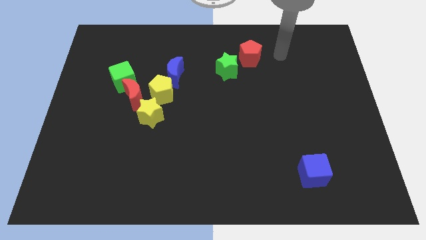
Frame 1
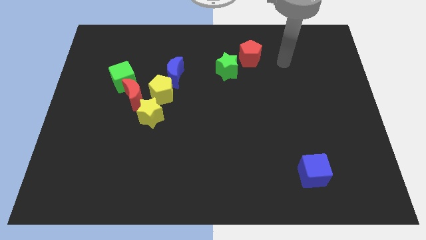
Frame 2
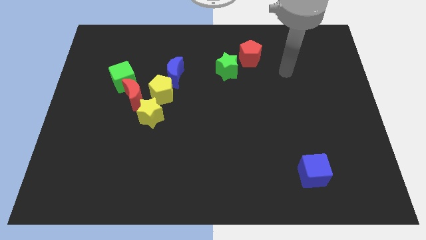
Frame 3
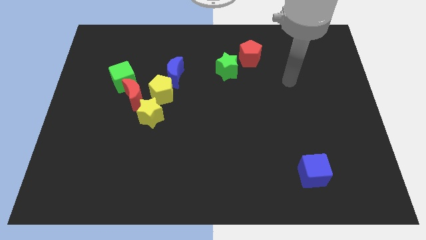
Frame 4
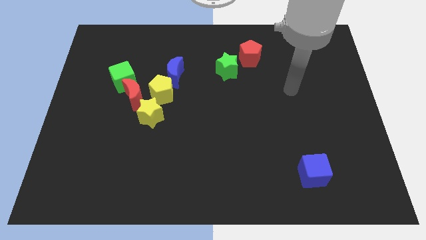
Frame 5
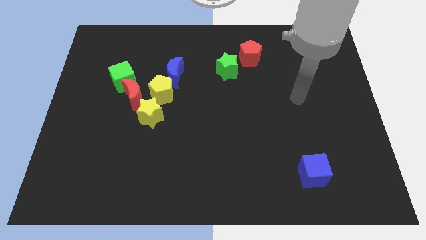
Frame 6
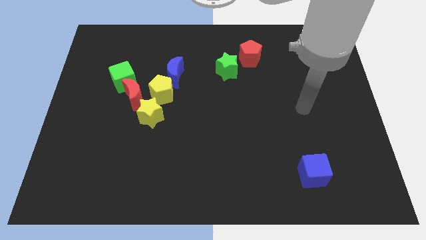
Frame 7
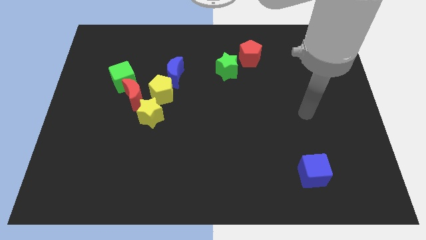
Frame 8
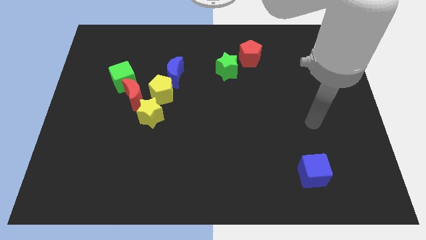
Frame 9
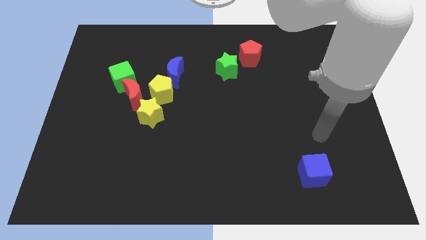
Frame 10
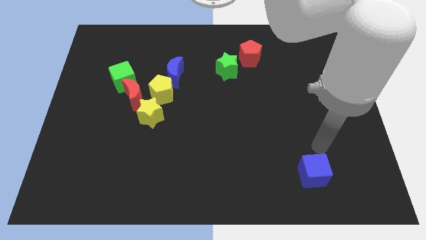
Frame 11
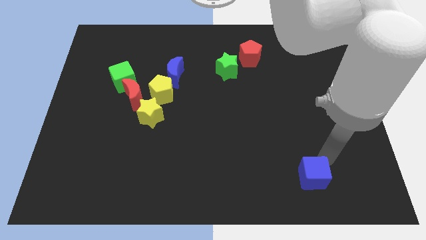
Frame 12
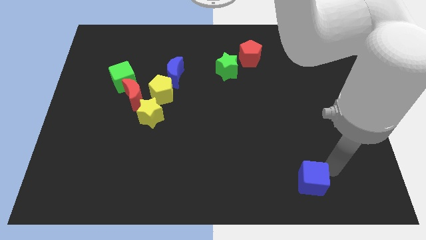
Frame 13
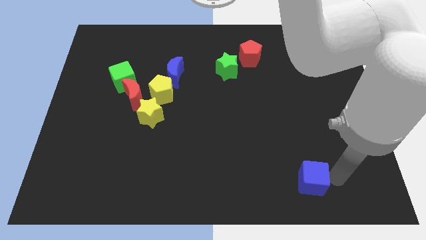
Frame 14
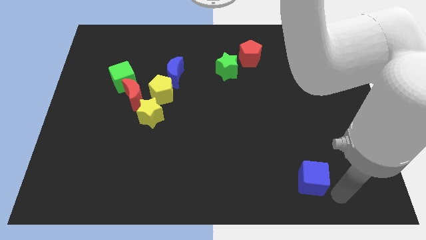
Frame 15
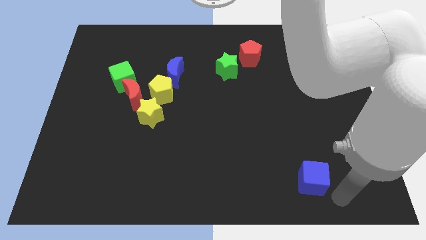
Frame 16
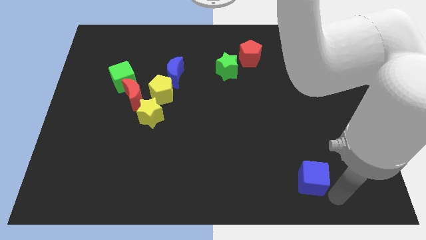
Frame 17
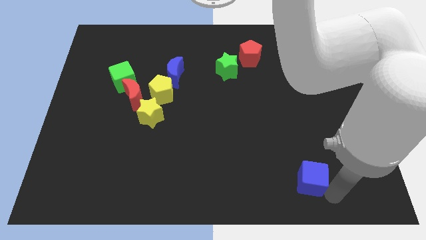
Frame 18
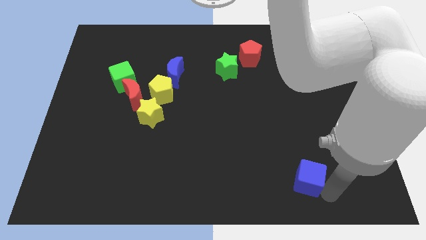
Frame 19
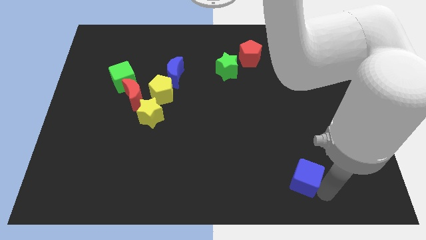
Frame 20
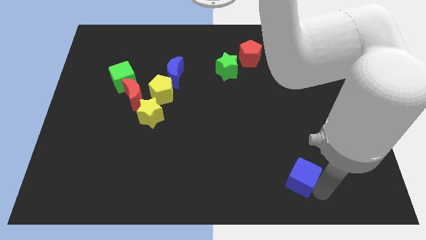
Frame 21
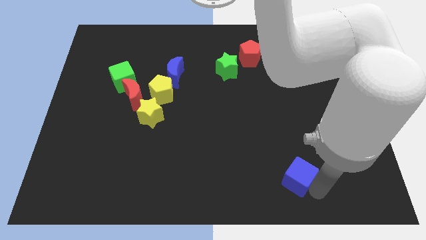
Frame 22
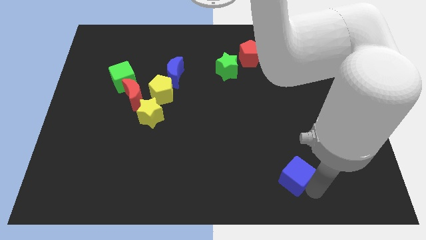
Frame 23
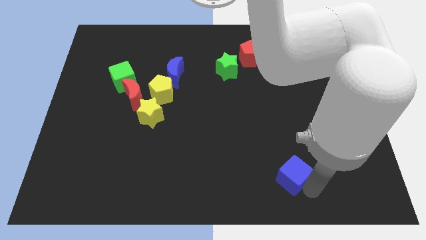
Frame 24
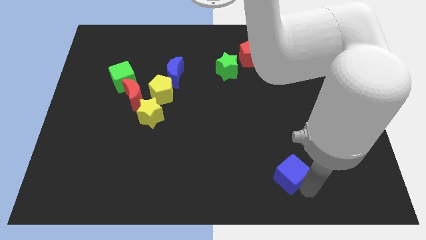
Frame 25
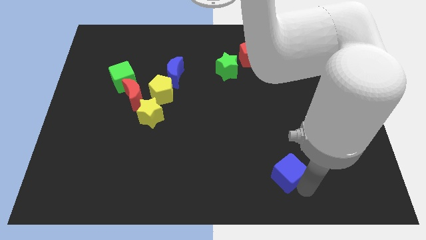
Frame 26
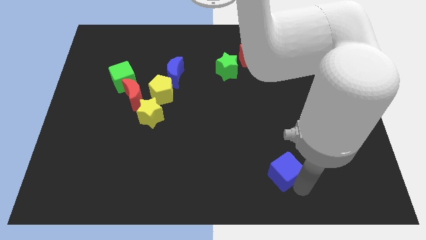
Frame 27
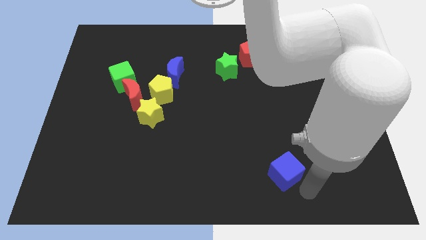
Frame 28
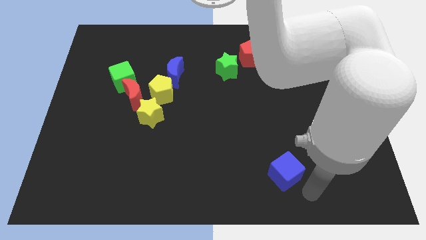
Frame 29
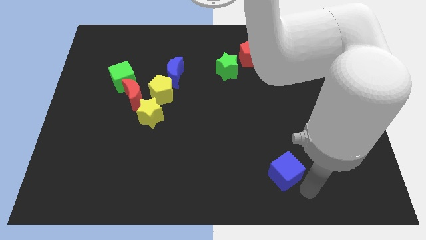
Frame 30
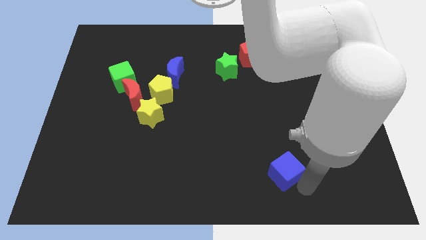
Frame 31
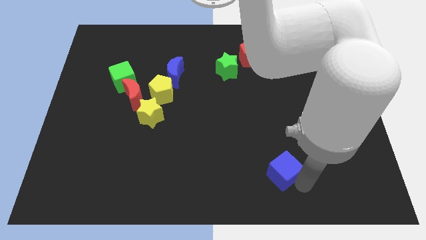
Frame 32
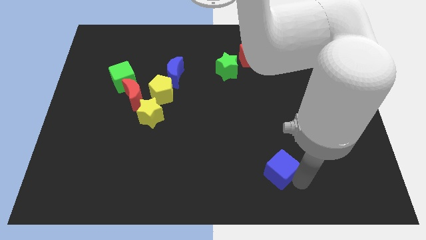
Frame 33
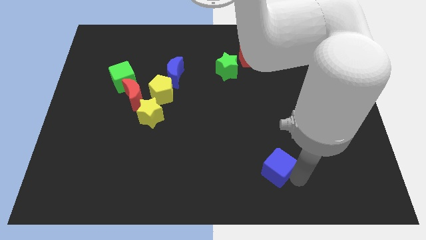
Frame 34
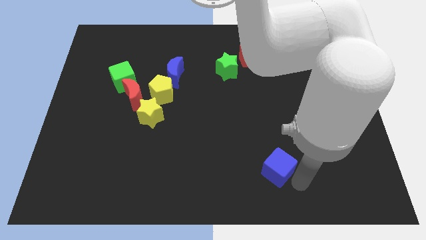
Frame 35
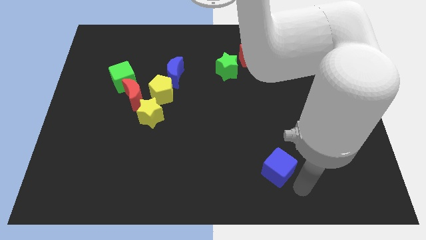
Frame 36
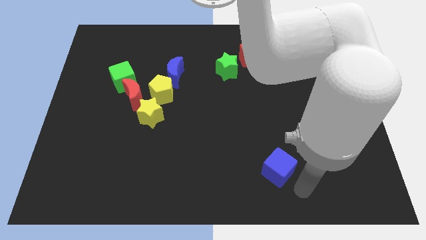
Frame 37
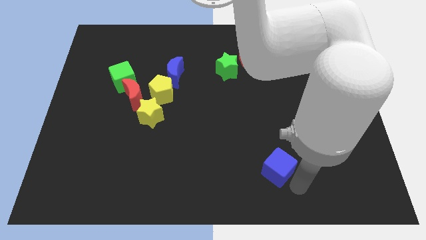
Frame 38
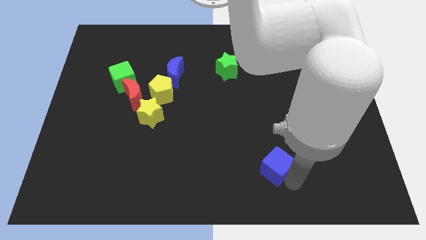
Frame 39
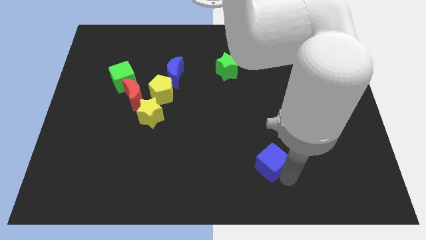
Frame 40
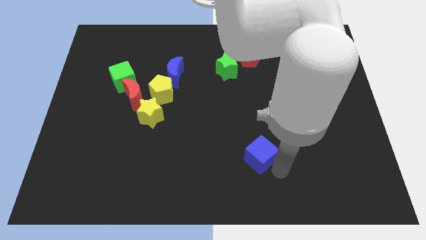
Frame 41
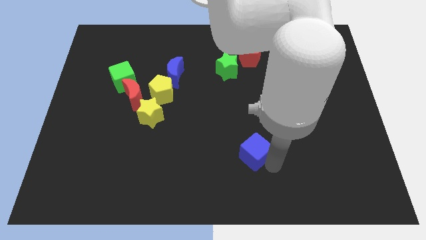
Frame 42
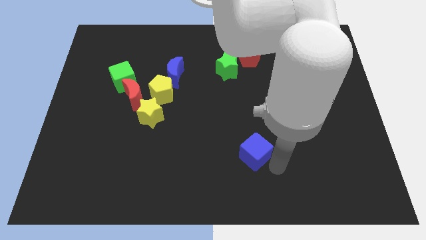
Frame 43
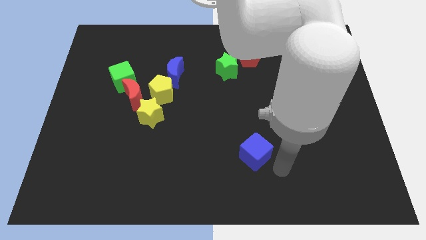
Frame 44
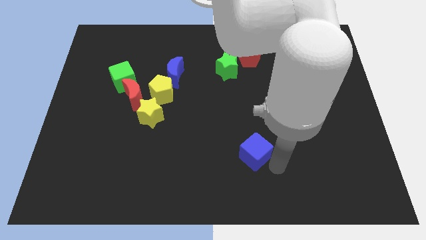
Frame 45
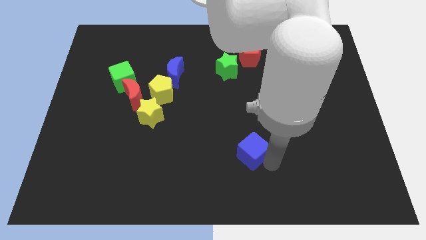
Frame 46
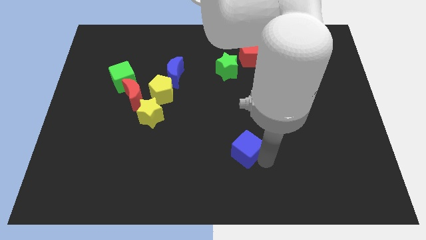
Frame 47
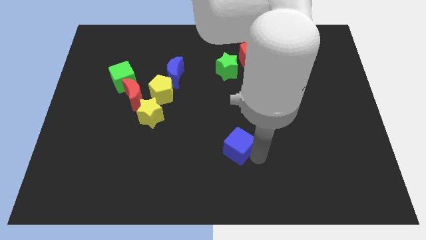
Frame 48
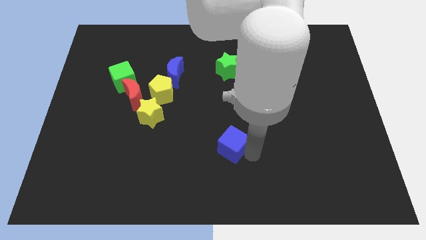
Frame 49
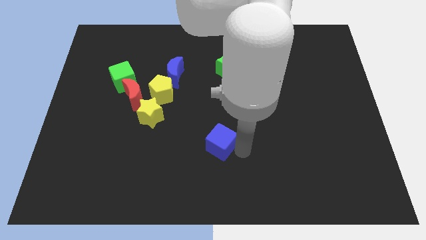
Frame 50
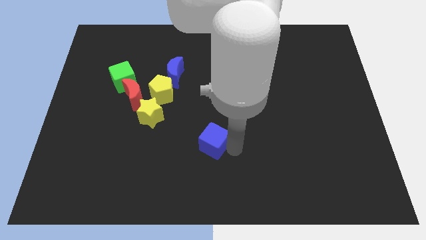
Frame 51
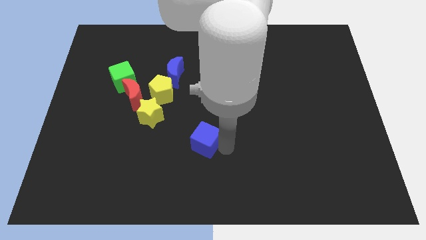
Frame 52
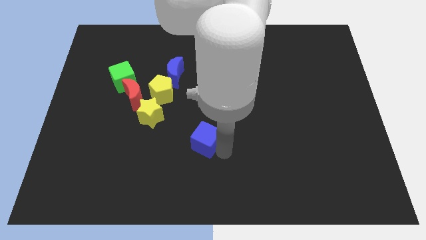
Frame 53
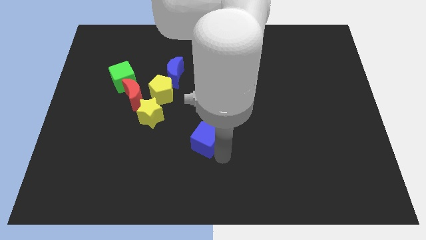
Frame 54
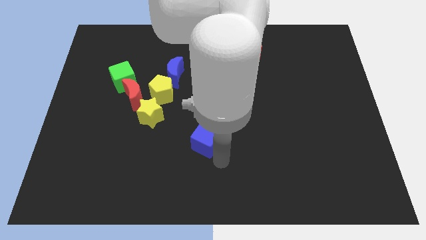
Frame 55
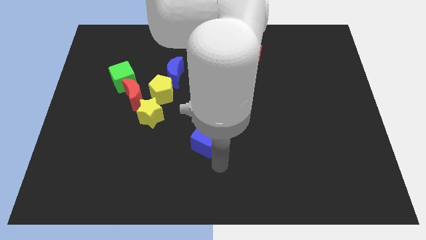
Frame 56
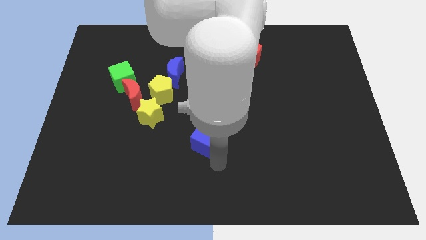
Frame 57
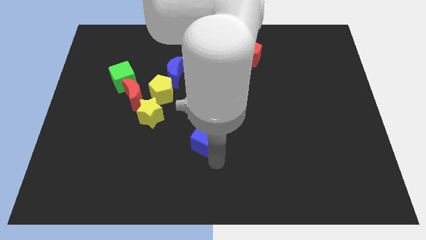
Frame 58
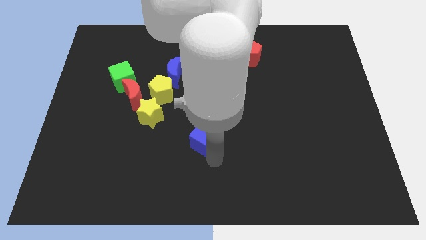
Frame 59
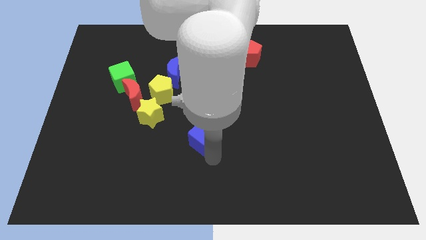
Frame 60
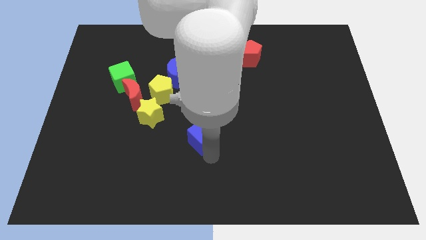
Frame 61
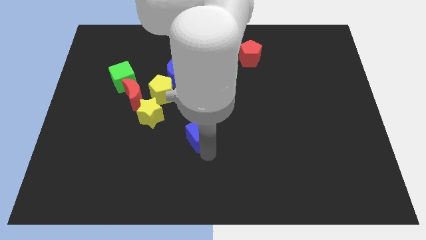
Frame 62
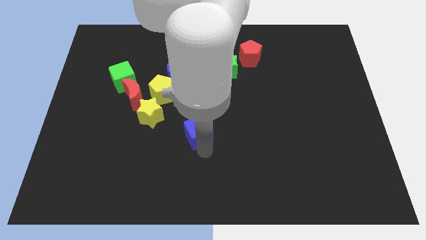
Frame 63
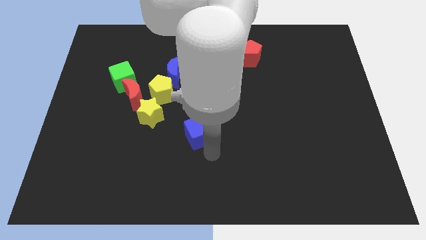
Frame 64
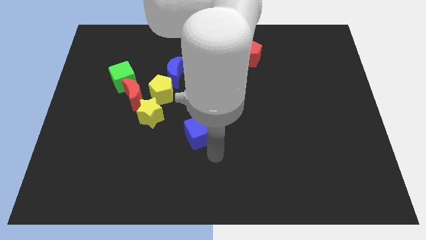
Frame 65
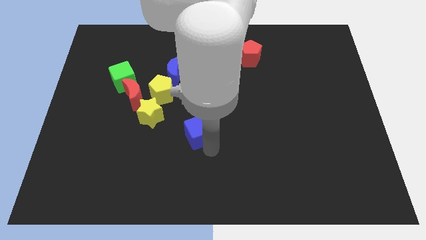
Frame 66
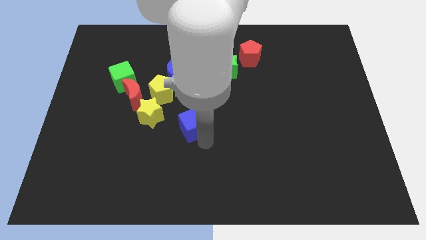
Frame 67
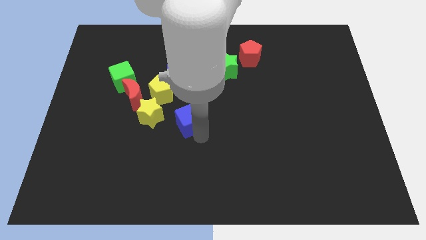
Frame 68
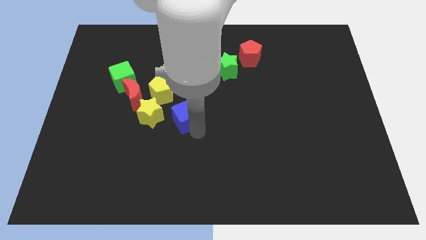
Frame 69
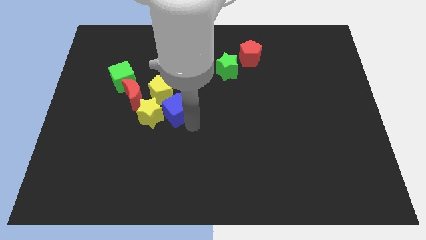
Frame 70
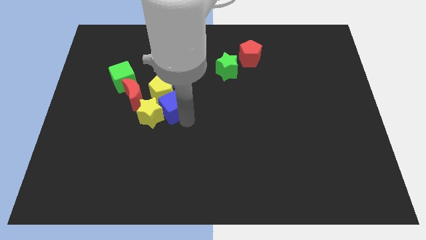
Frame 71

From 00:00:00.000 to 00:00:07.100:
move the blue cube towards the yellow pentagon
